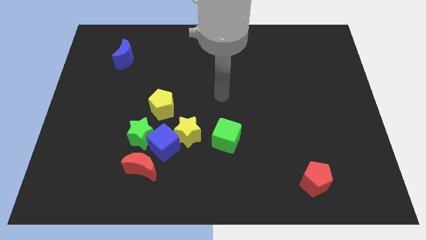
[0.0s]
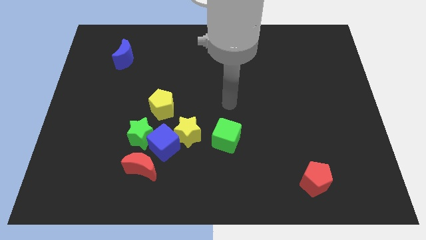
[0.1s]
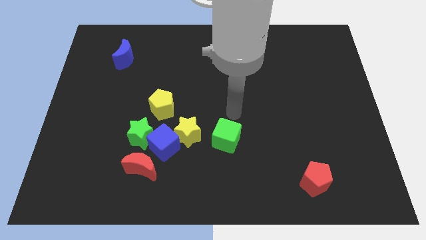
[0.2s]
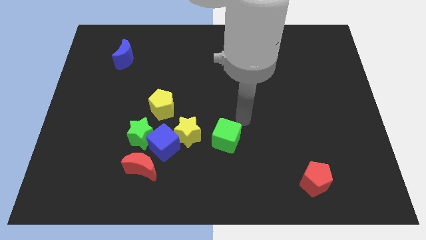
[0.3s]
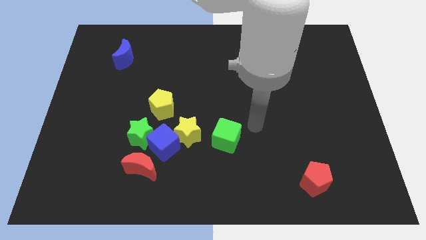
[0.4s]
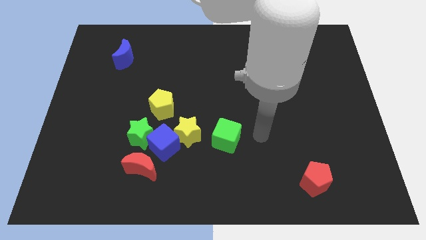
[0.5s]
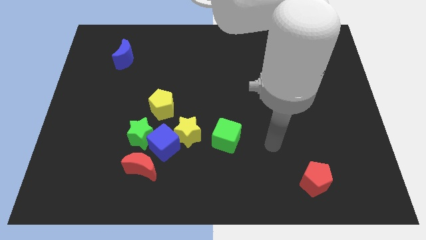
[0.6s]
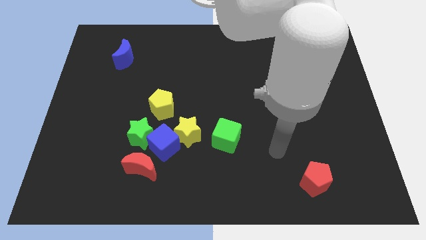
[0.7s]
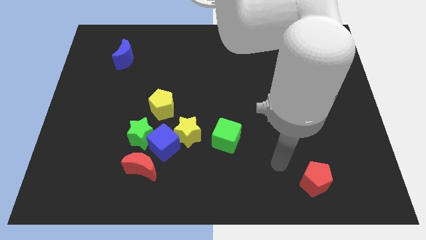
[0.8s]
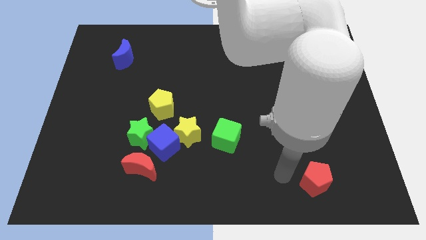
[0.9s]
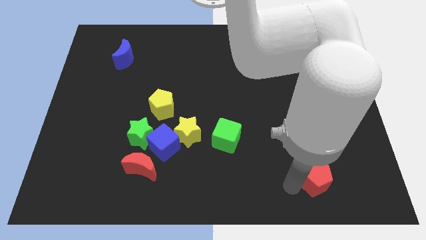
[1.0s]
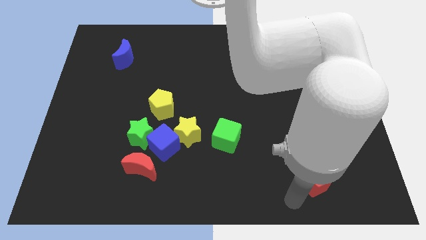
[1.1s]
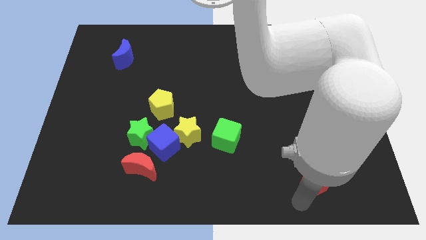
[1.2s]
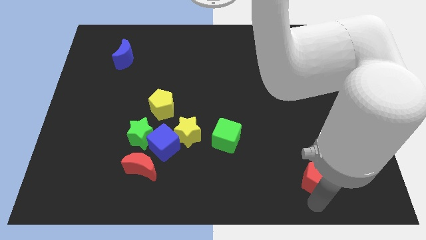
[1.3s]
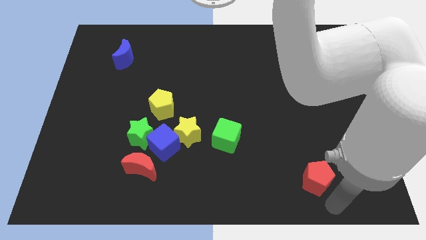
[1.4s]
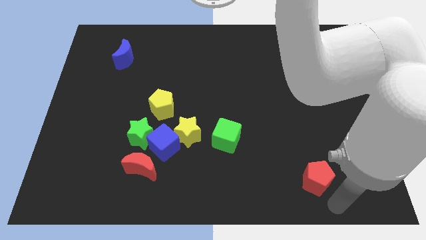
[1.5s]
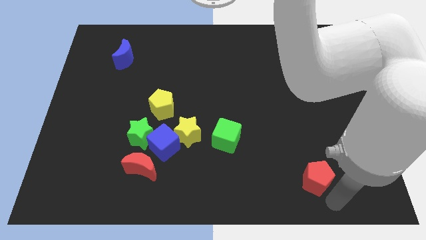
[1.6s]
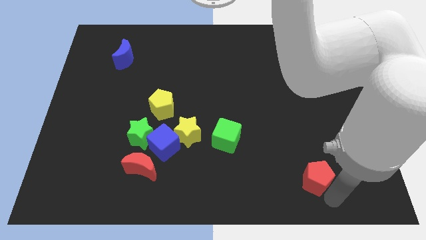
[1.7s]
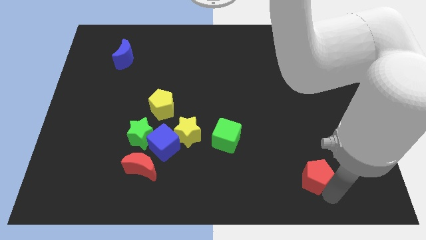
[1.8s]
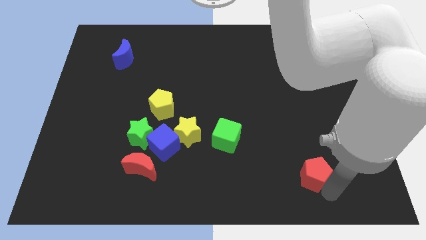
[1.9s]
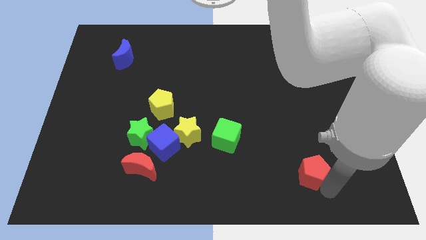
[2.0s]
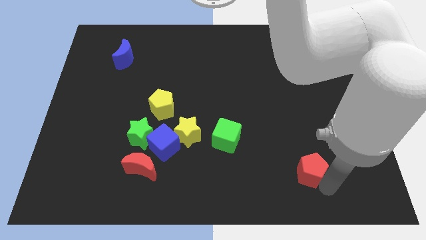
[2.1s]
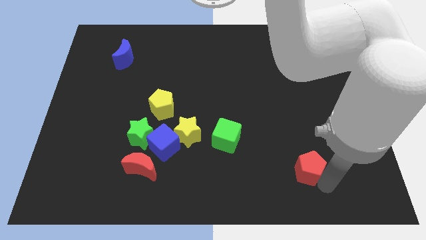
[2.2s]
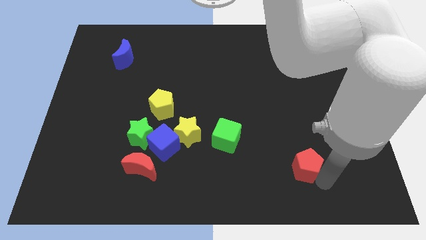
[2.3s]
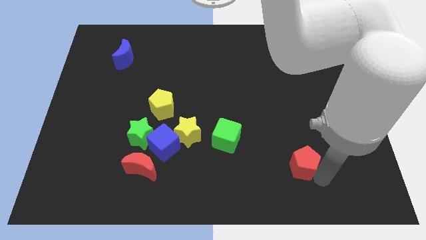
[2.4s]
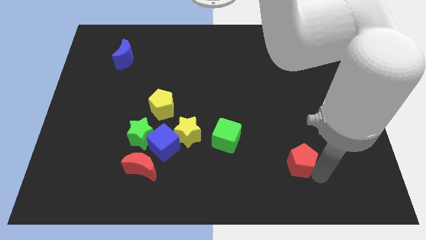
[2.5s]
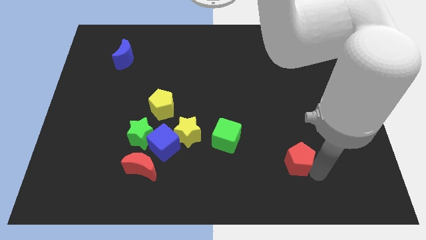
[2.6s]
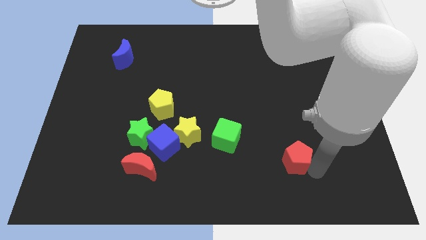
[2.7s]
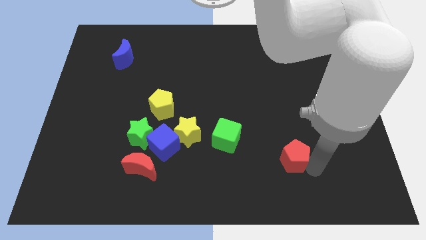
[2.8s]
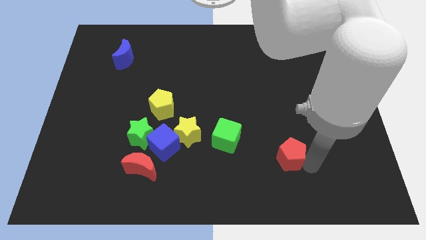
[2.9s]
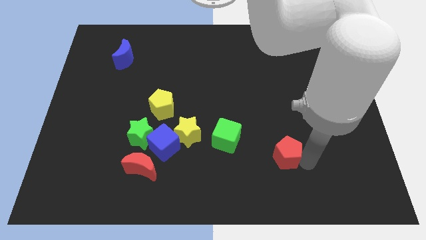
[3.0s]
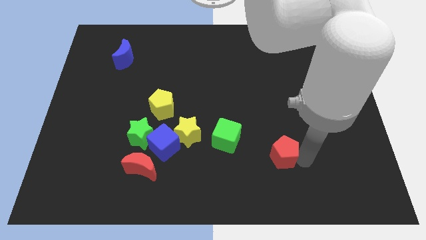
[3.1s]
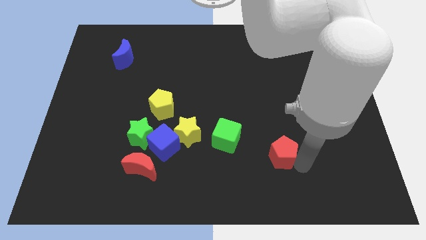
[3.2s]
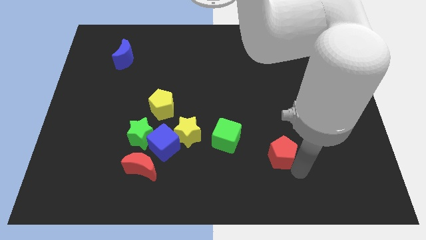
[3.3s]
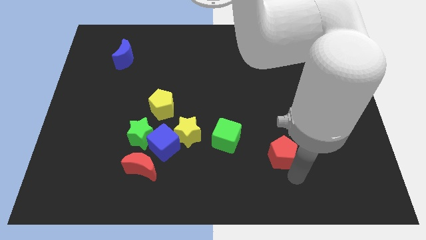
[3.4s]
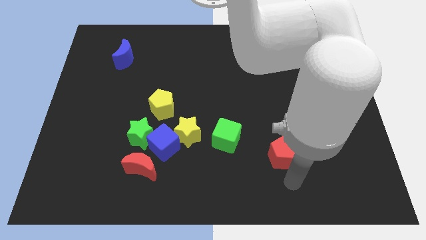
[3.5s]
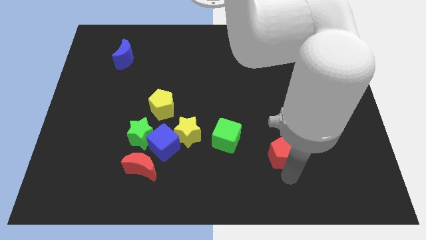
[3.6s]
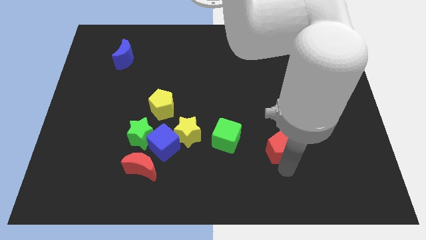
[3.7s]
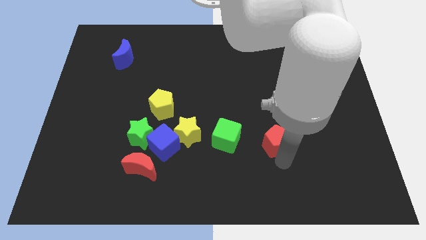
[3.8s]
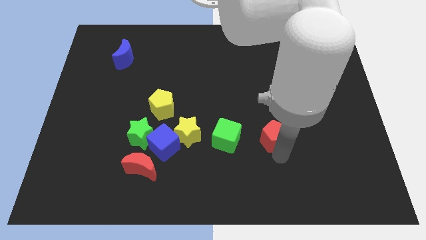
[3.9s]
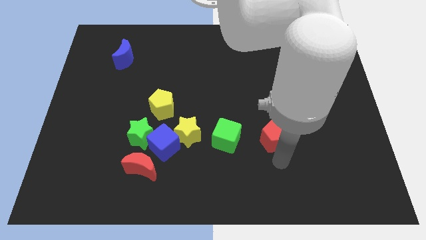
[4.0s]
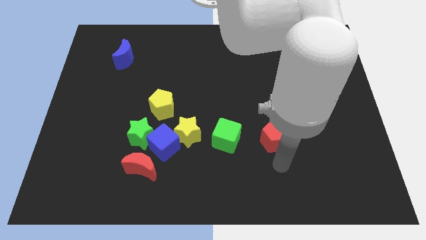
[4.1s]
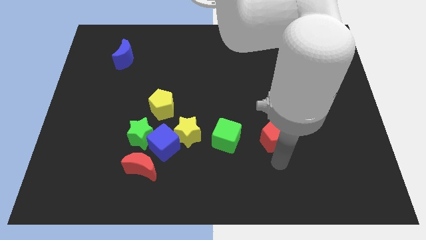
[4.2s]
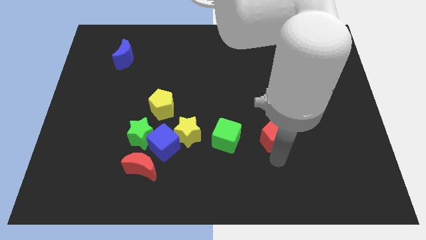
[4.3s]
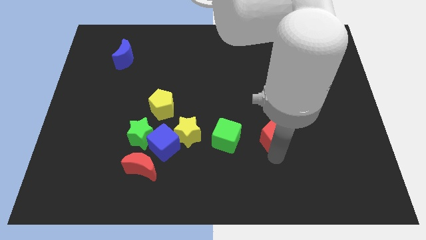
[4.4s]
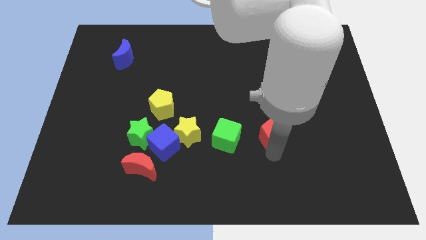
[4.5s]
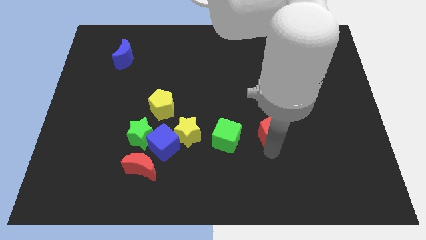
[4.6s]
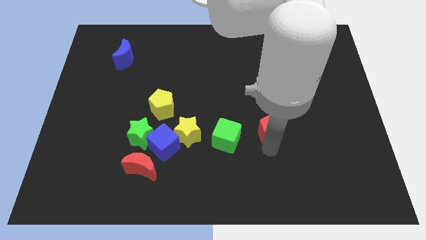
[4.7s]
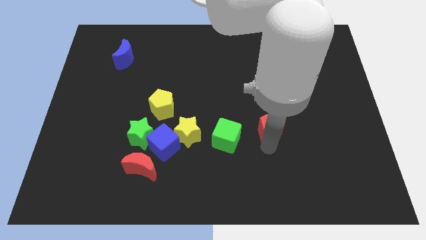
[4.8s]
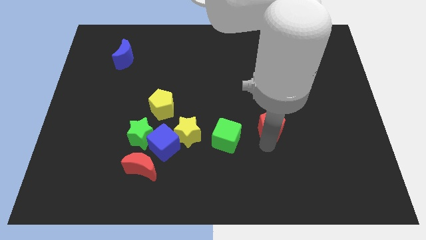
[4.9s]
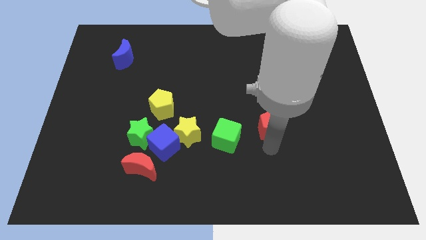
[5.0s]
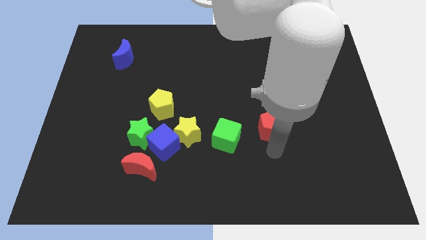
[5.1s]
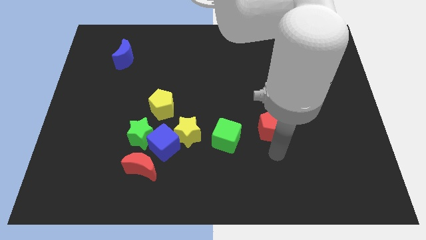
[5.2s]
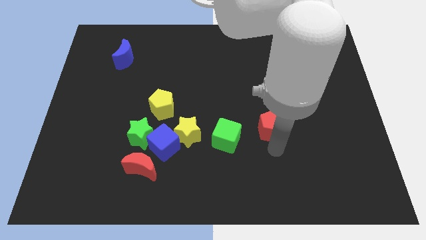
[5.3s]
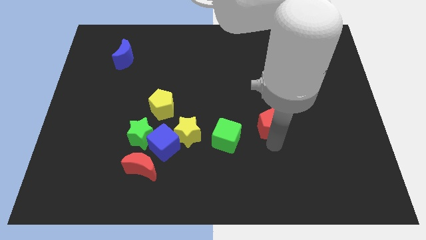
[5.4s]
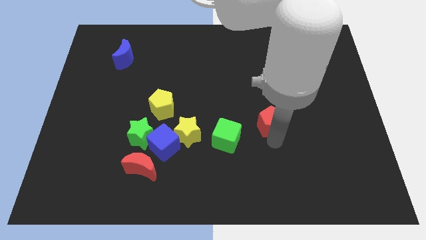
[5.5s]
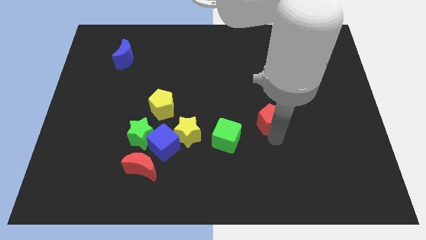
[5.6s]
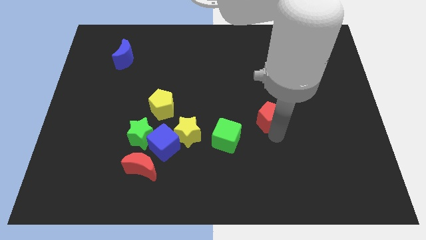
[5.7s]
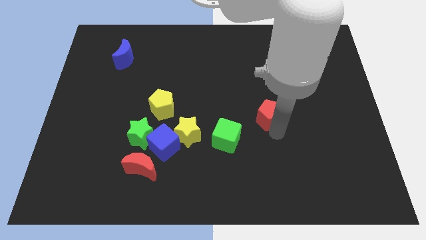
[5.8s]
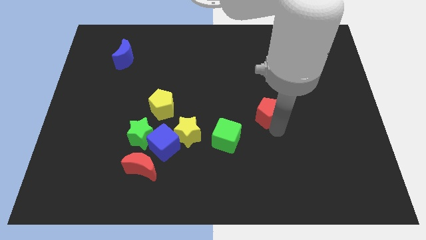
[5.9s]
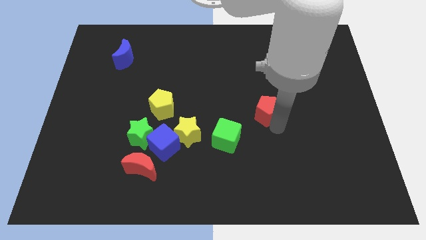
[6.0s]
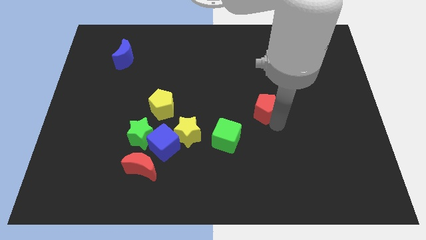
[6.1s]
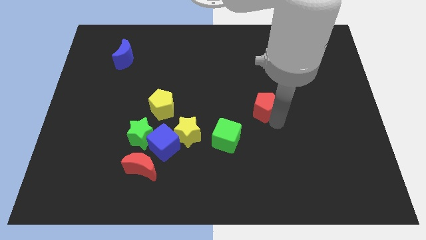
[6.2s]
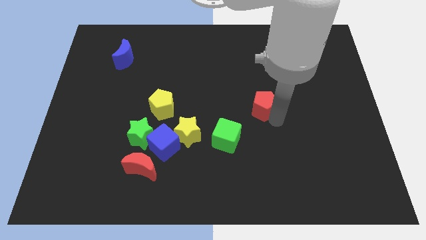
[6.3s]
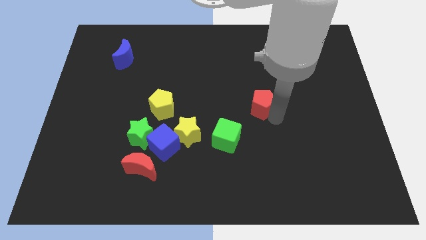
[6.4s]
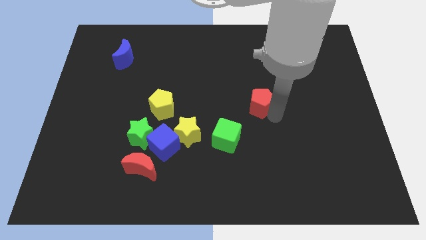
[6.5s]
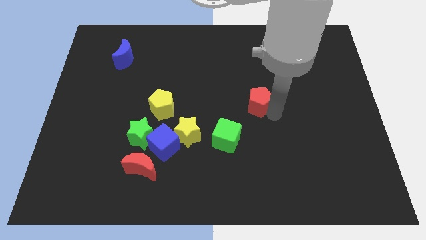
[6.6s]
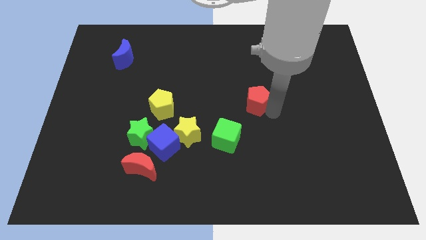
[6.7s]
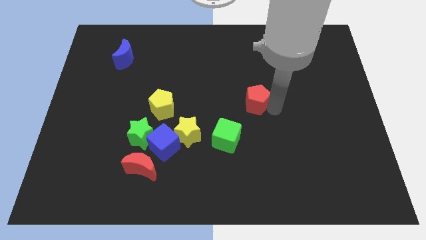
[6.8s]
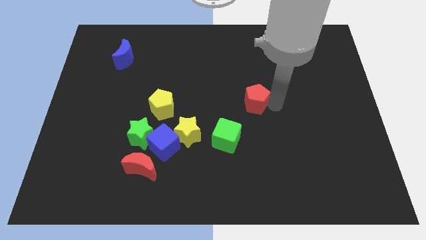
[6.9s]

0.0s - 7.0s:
push the red pentagon up and to the left

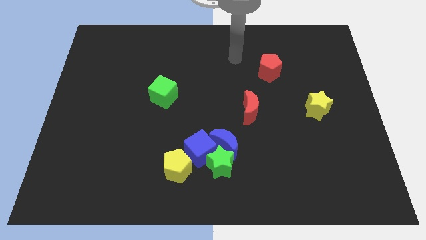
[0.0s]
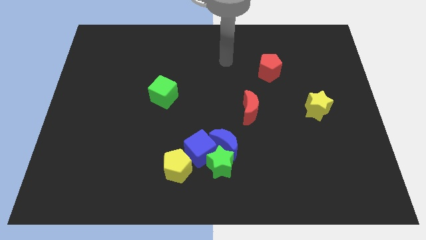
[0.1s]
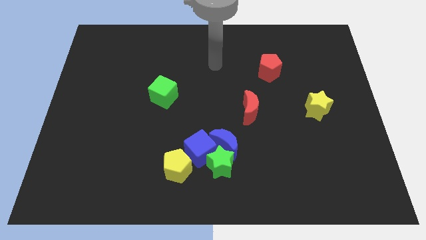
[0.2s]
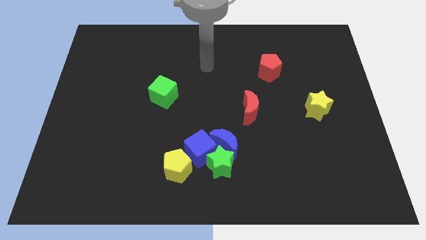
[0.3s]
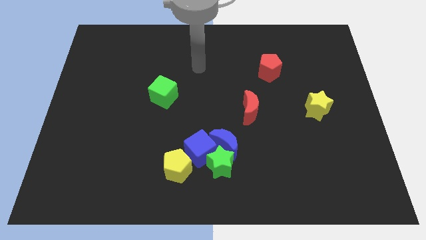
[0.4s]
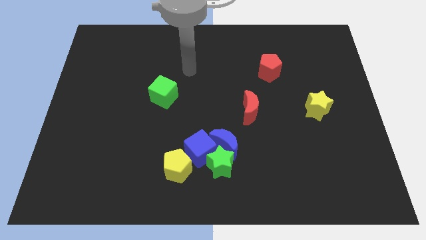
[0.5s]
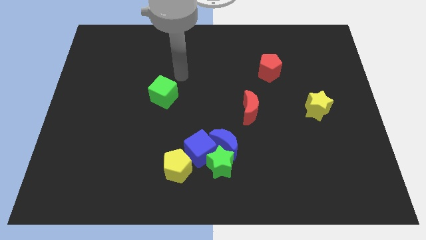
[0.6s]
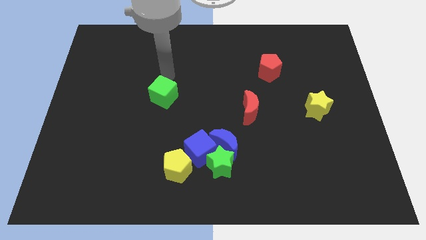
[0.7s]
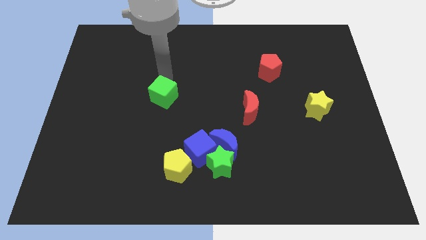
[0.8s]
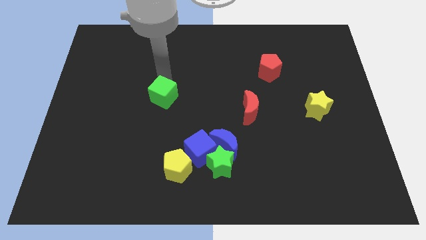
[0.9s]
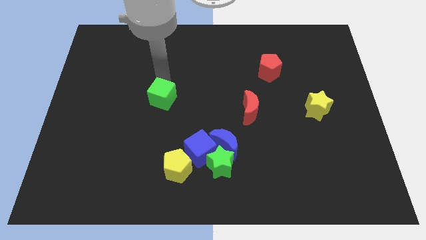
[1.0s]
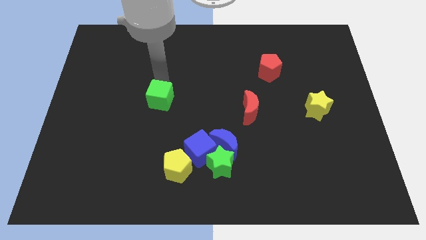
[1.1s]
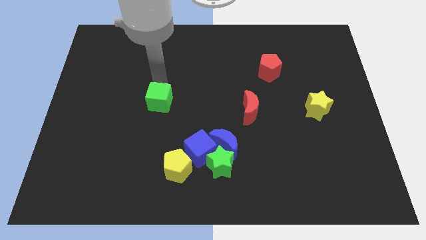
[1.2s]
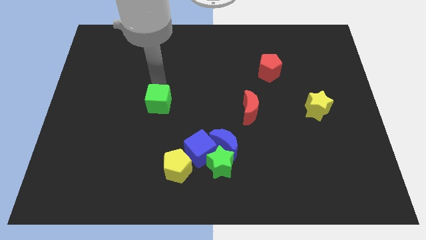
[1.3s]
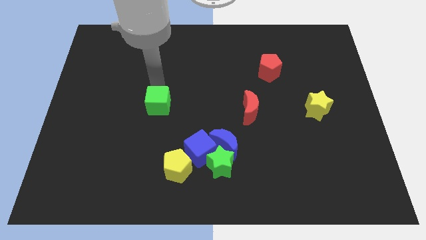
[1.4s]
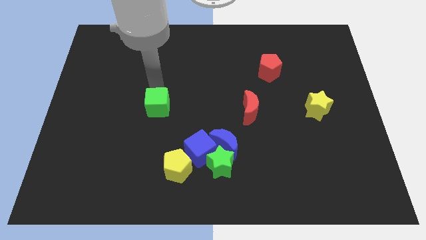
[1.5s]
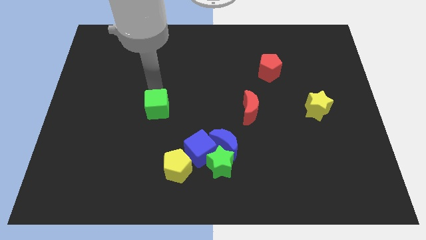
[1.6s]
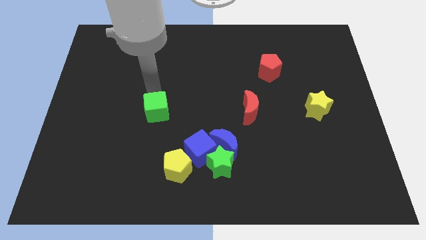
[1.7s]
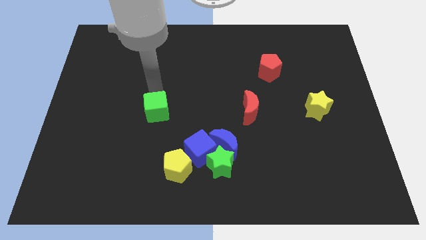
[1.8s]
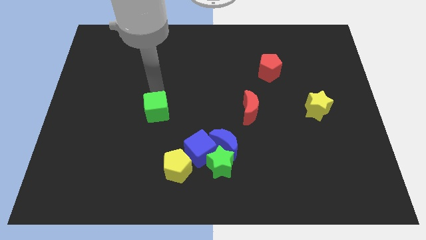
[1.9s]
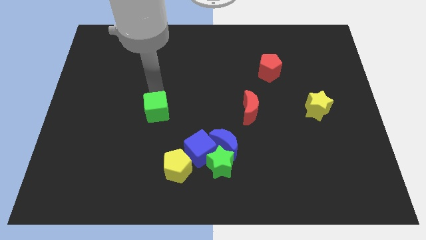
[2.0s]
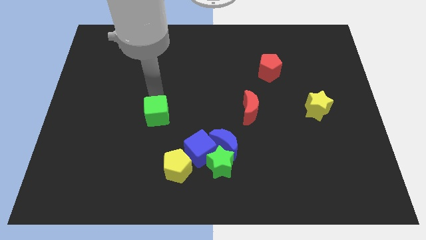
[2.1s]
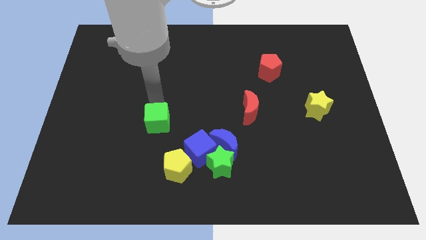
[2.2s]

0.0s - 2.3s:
push the green cube a little downwards
